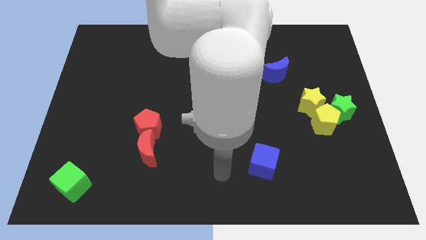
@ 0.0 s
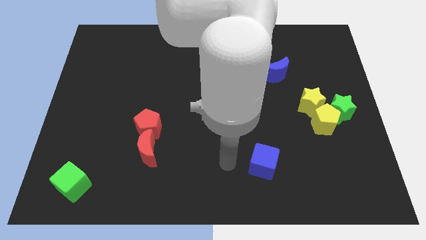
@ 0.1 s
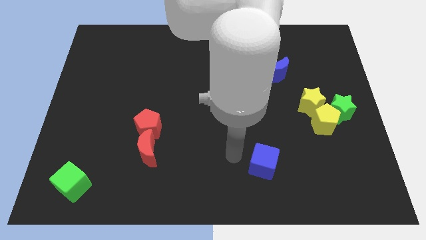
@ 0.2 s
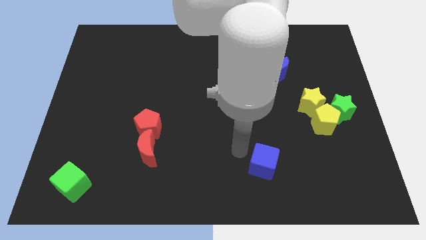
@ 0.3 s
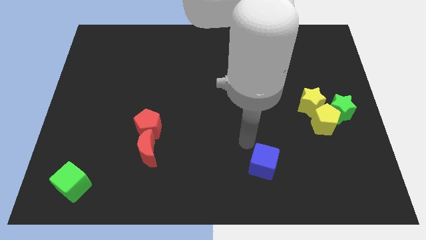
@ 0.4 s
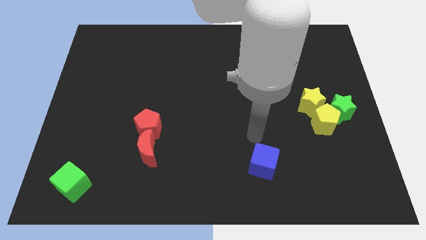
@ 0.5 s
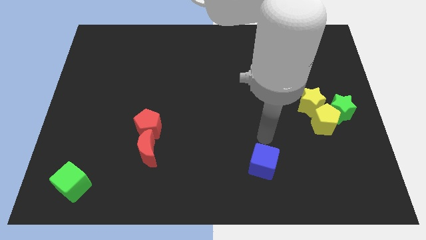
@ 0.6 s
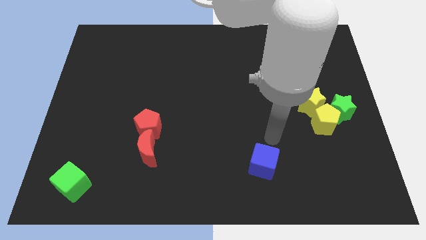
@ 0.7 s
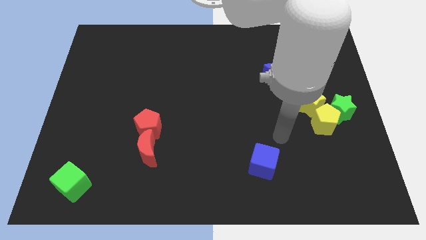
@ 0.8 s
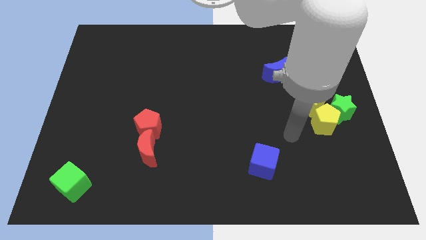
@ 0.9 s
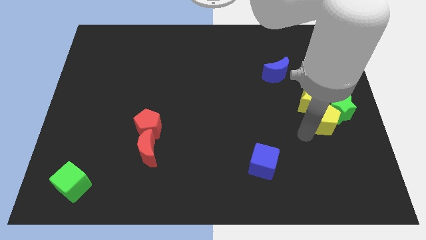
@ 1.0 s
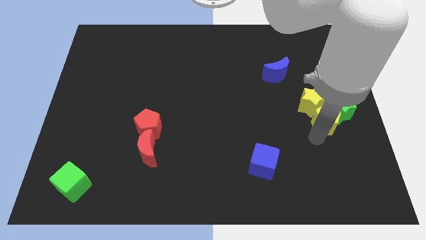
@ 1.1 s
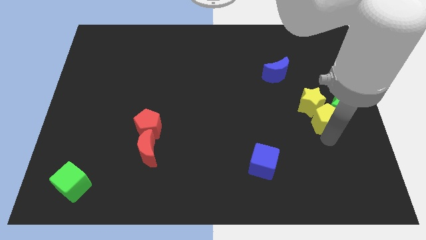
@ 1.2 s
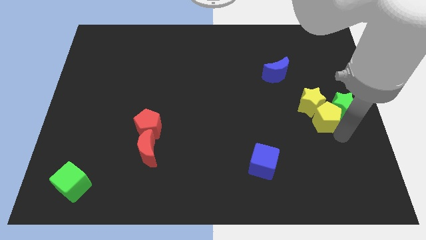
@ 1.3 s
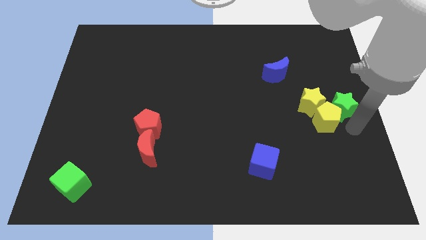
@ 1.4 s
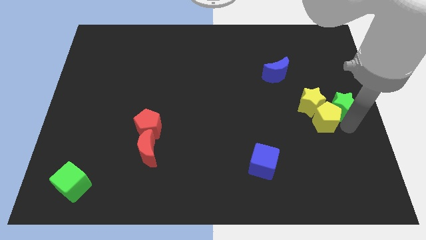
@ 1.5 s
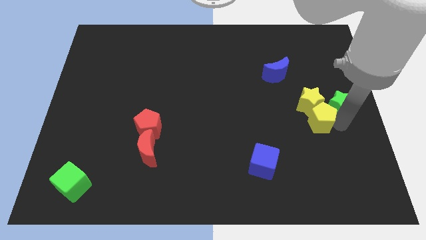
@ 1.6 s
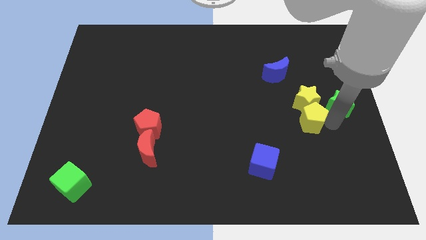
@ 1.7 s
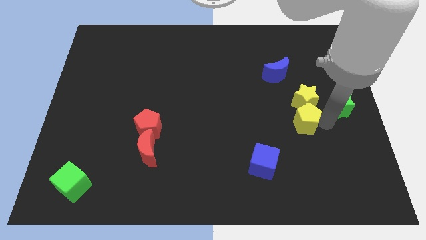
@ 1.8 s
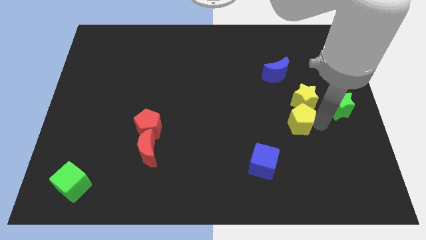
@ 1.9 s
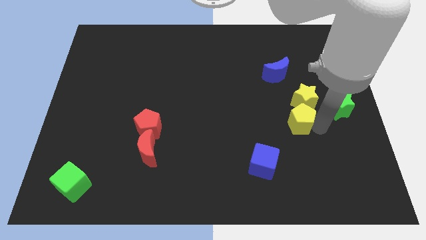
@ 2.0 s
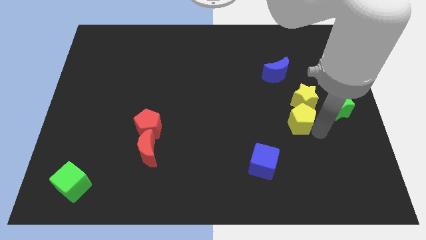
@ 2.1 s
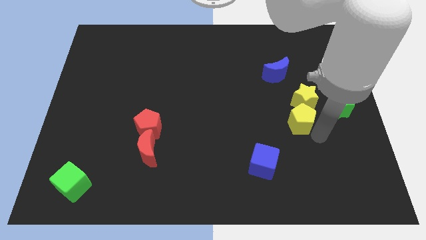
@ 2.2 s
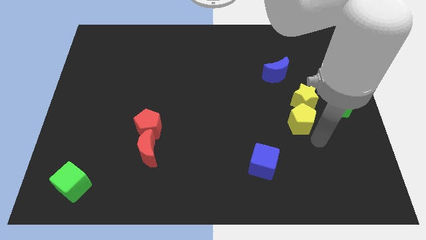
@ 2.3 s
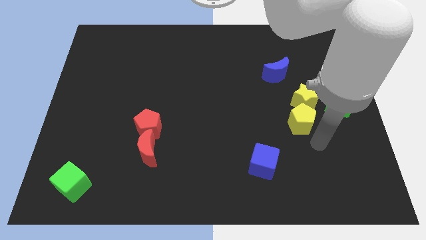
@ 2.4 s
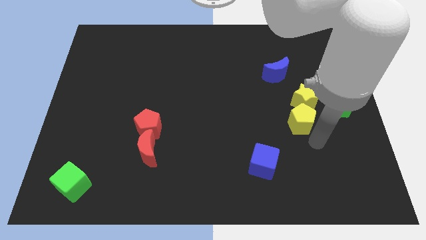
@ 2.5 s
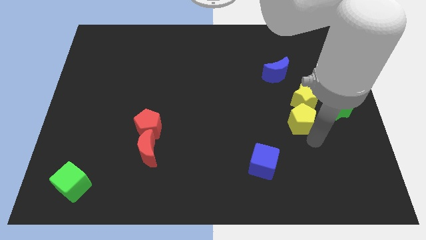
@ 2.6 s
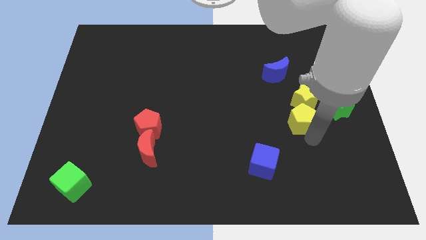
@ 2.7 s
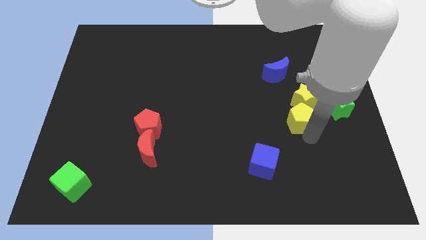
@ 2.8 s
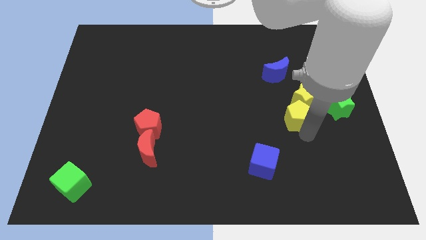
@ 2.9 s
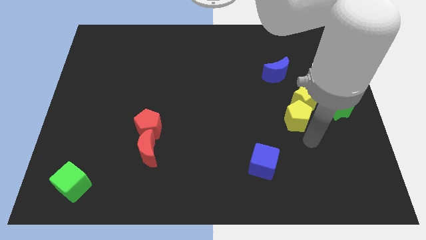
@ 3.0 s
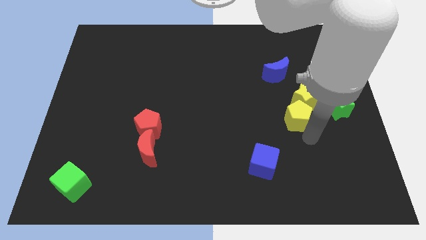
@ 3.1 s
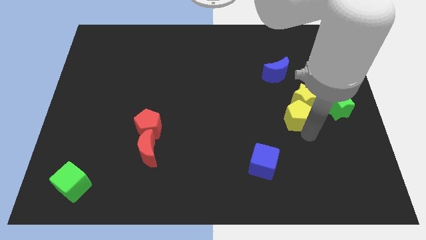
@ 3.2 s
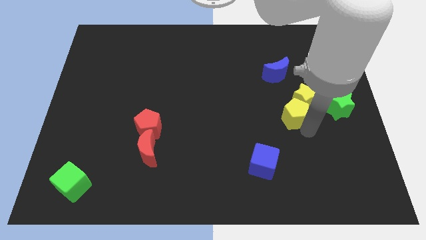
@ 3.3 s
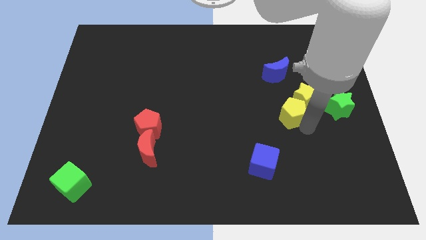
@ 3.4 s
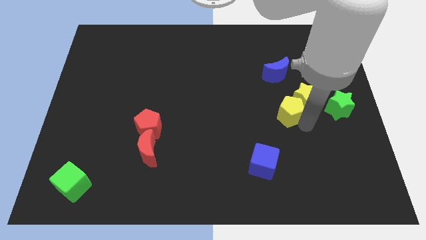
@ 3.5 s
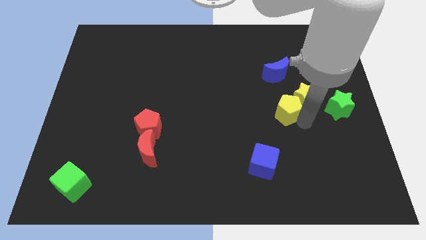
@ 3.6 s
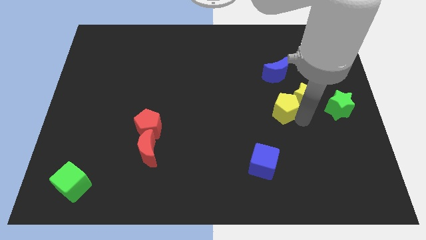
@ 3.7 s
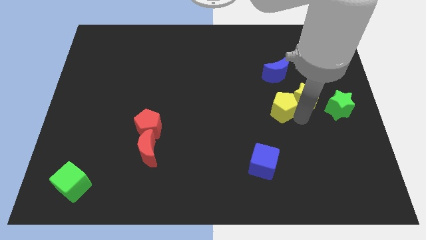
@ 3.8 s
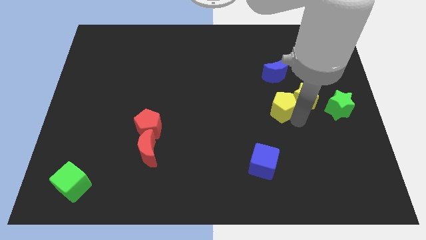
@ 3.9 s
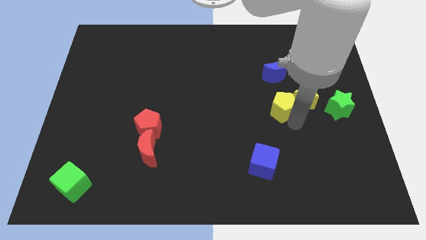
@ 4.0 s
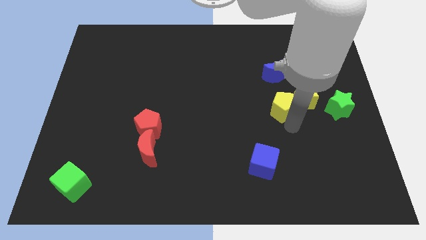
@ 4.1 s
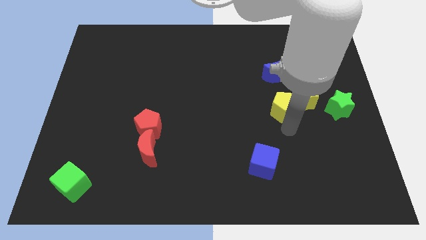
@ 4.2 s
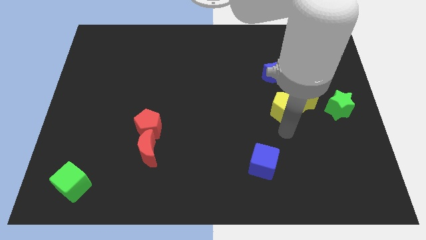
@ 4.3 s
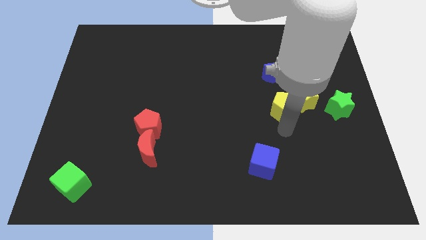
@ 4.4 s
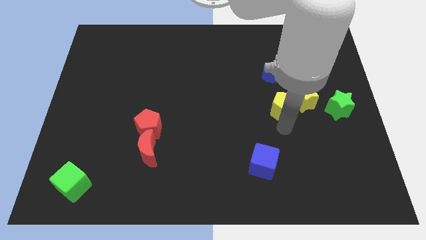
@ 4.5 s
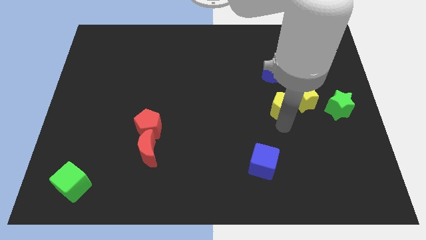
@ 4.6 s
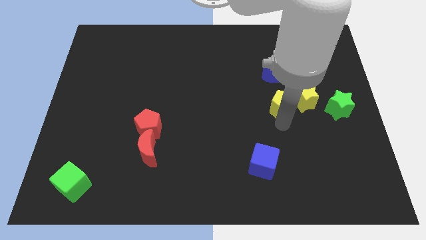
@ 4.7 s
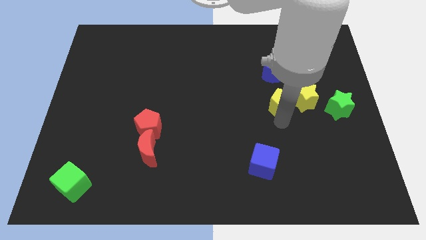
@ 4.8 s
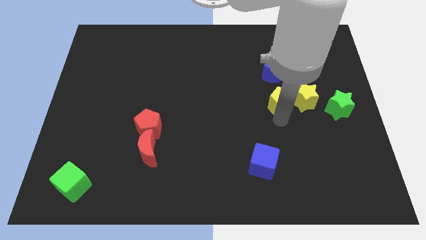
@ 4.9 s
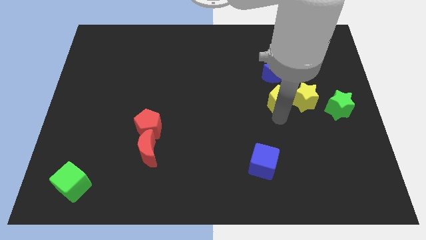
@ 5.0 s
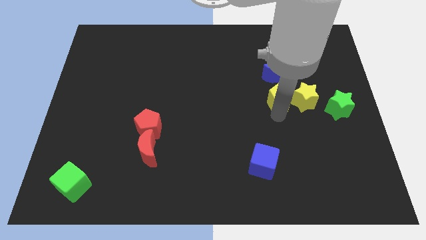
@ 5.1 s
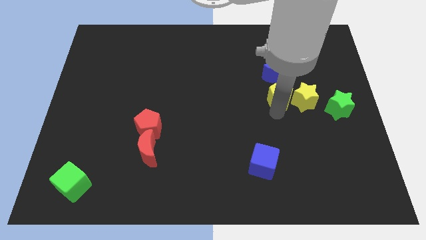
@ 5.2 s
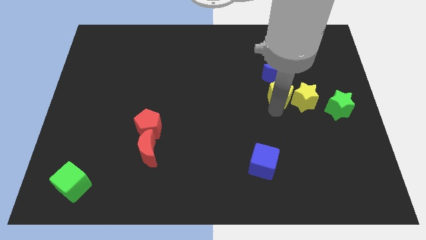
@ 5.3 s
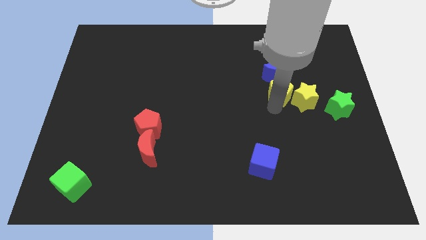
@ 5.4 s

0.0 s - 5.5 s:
put the yellow pentagon diagonally down and to the right of the blue moon

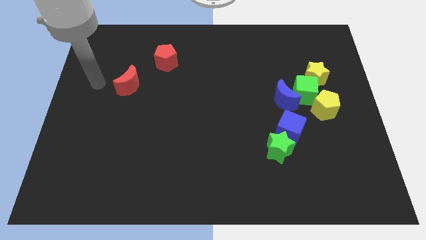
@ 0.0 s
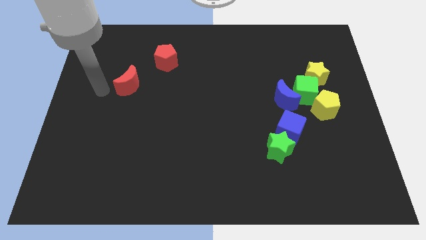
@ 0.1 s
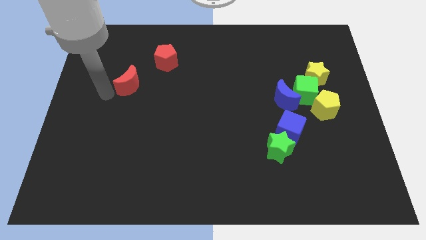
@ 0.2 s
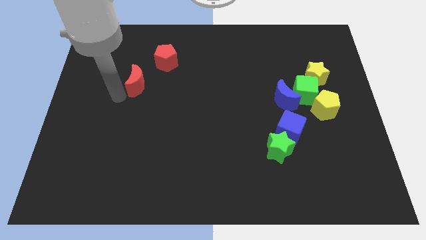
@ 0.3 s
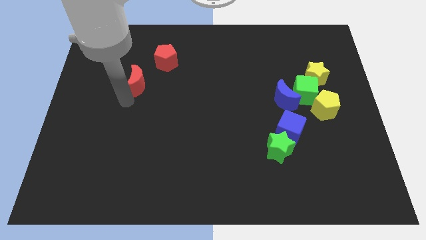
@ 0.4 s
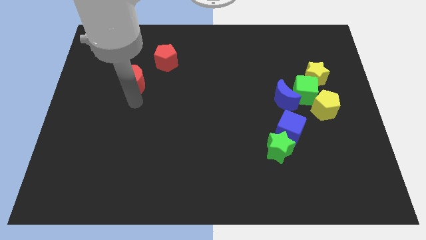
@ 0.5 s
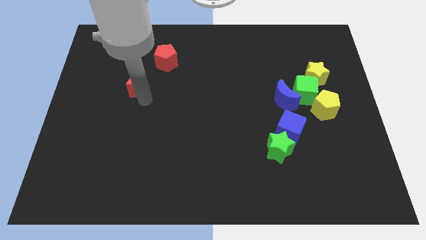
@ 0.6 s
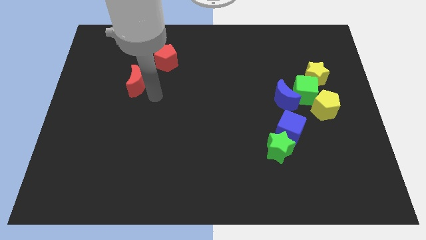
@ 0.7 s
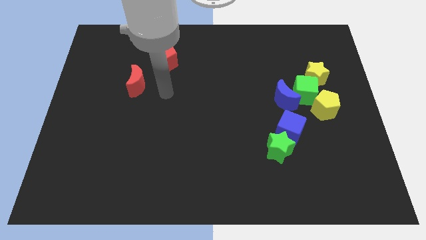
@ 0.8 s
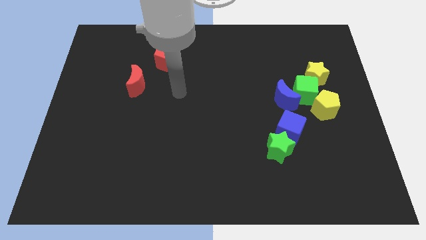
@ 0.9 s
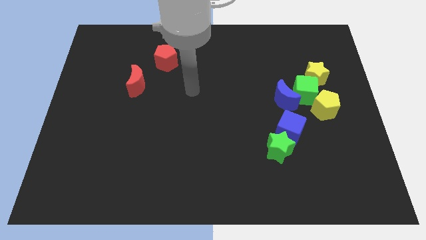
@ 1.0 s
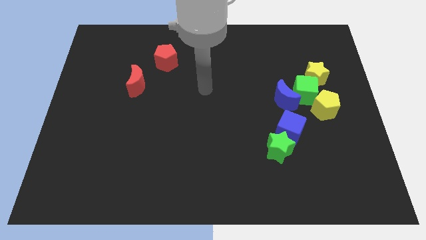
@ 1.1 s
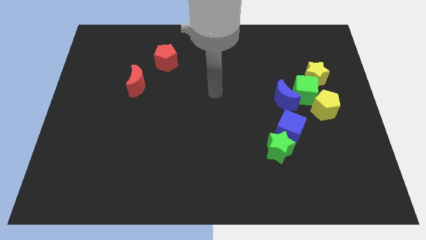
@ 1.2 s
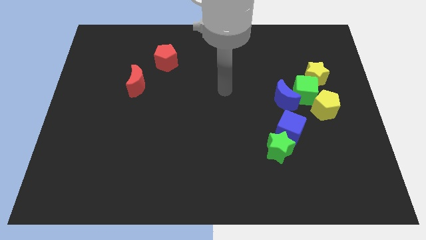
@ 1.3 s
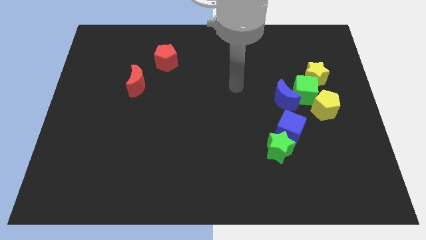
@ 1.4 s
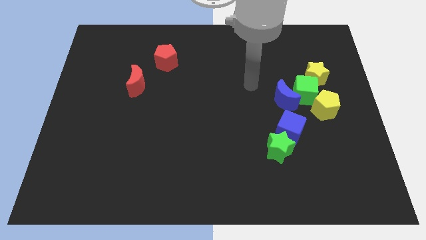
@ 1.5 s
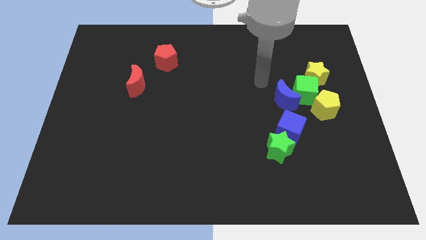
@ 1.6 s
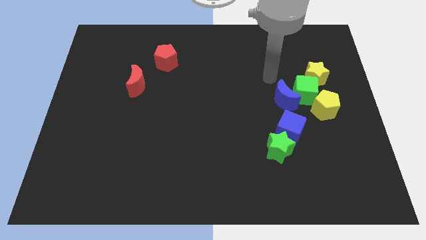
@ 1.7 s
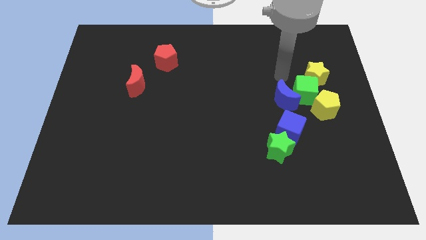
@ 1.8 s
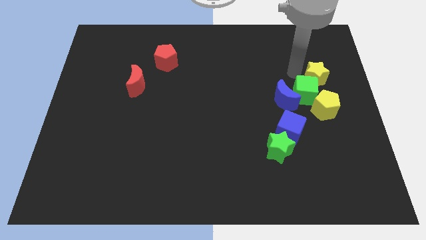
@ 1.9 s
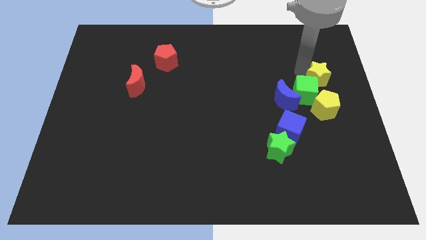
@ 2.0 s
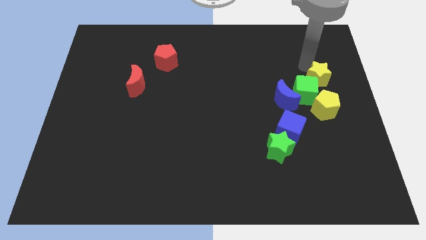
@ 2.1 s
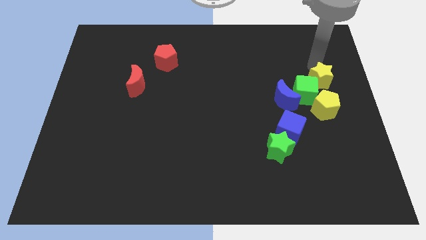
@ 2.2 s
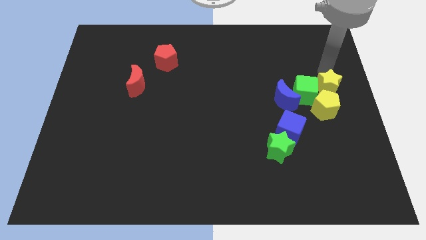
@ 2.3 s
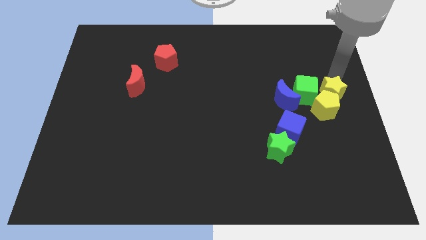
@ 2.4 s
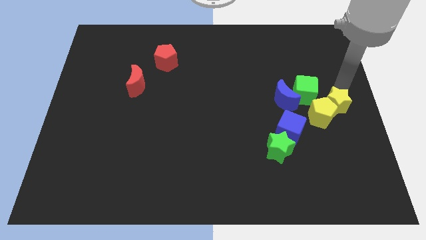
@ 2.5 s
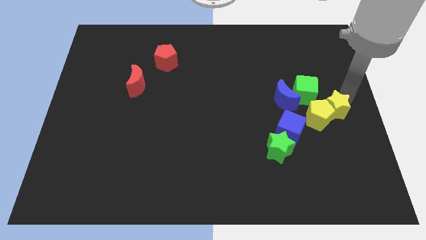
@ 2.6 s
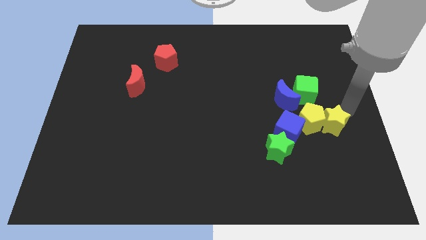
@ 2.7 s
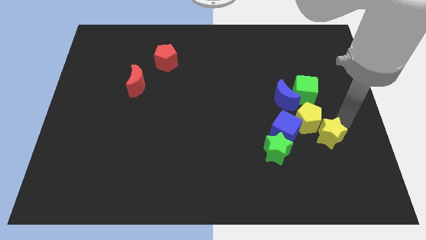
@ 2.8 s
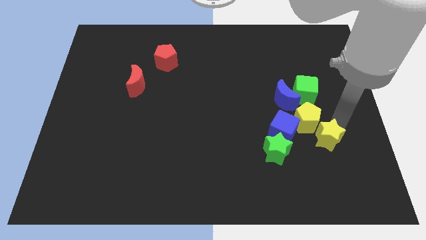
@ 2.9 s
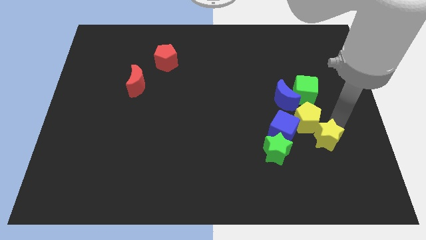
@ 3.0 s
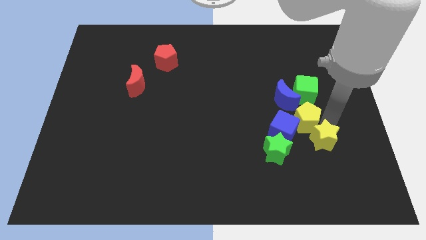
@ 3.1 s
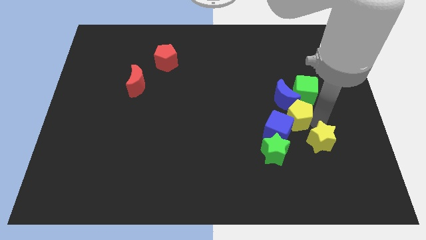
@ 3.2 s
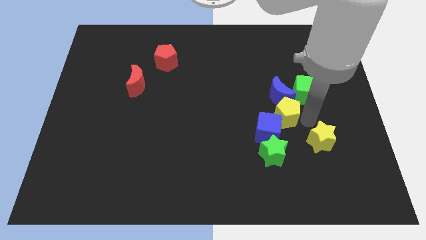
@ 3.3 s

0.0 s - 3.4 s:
put the yellow pentagon diagonally down and to the left of the blue moon
